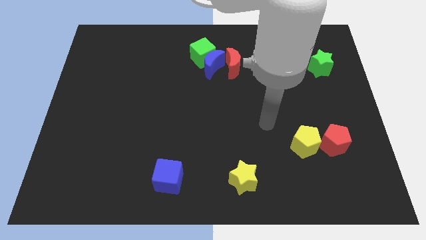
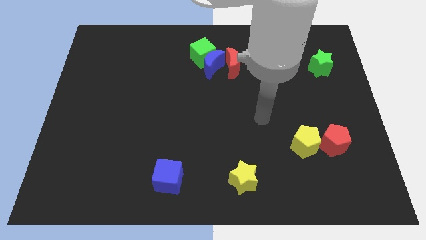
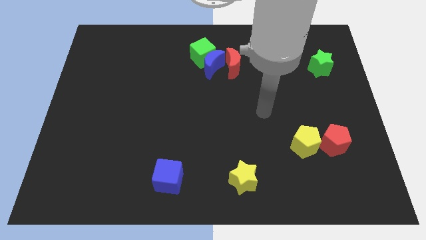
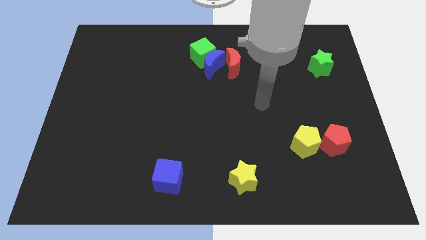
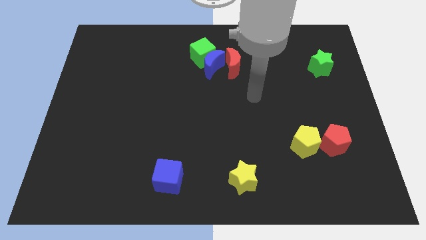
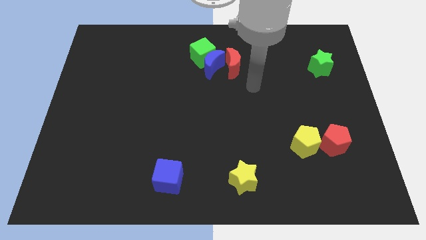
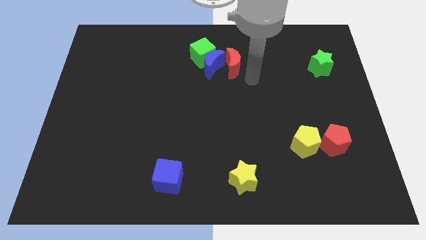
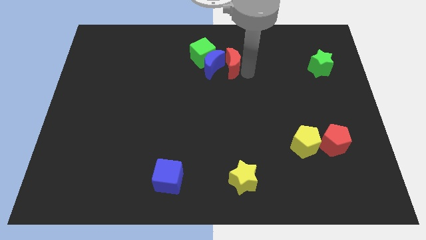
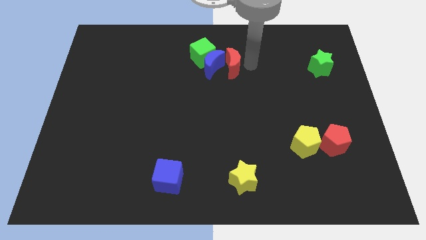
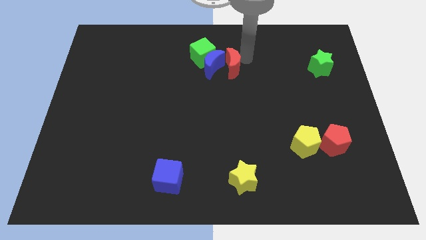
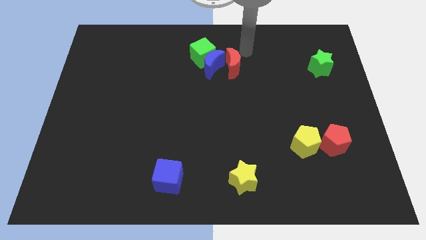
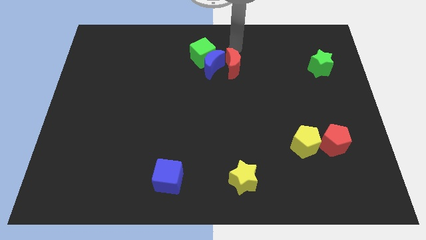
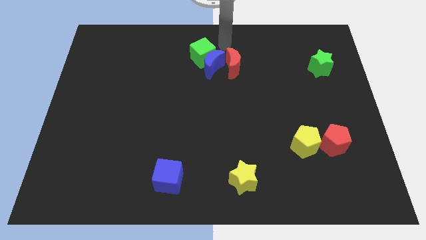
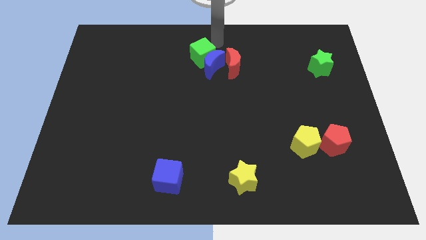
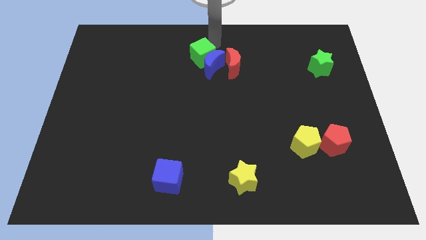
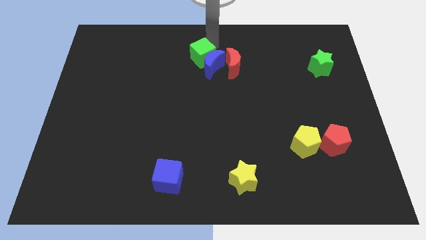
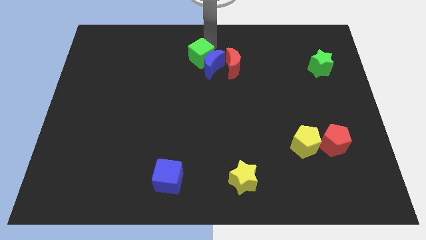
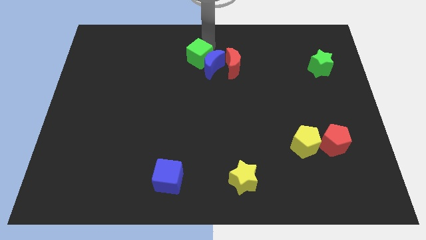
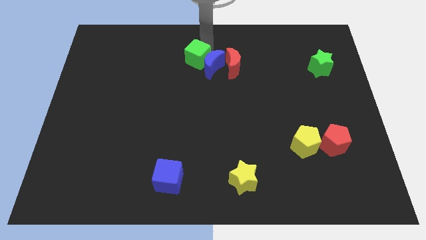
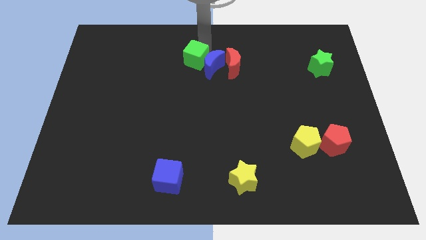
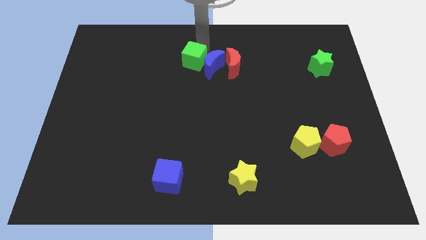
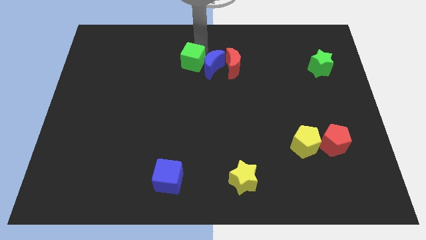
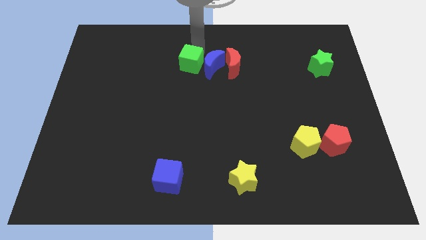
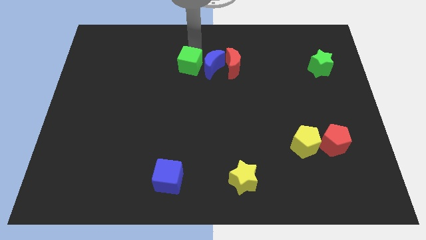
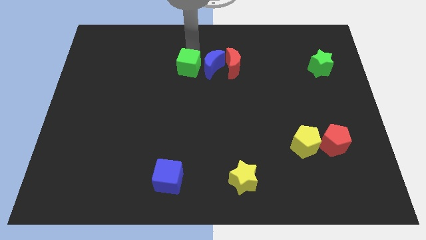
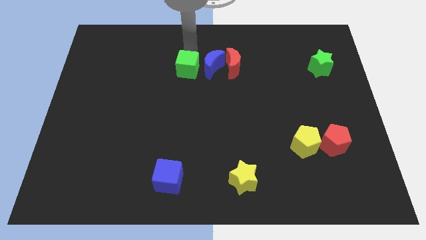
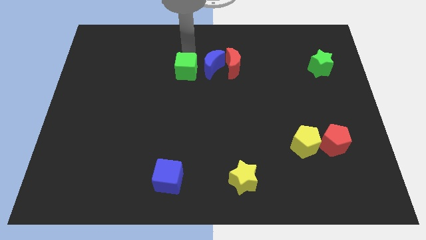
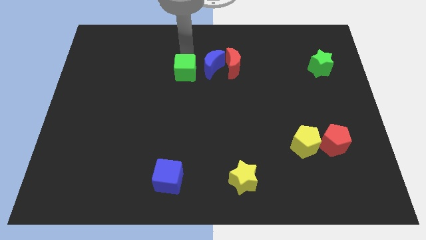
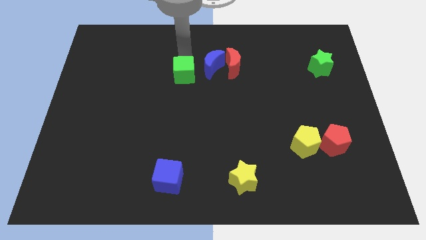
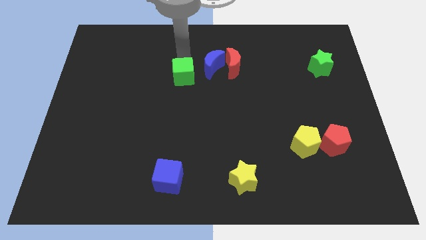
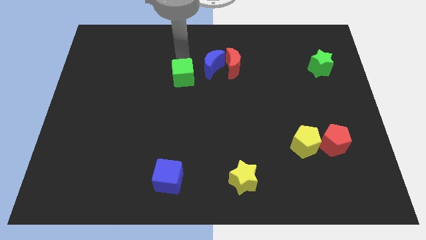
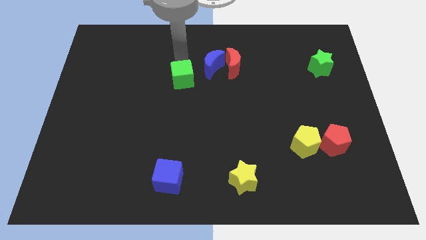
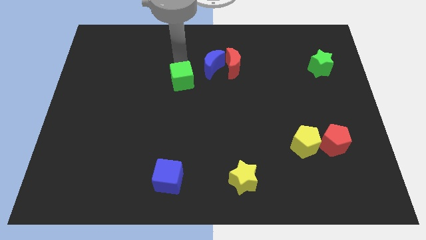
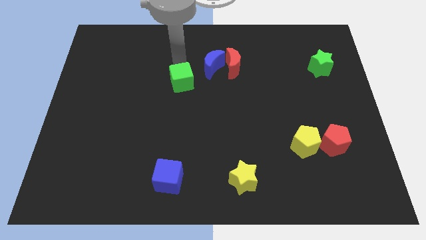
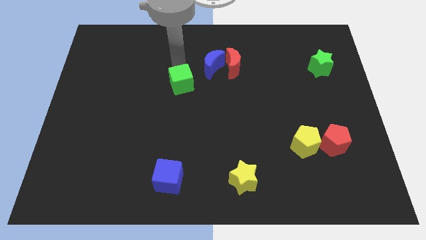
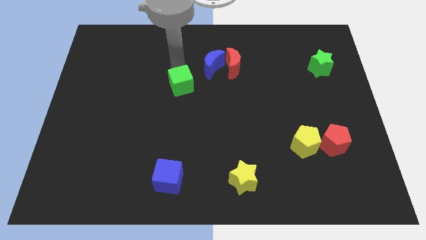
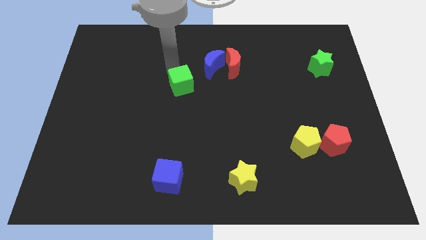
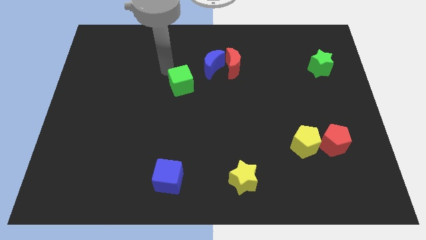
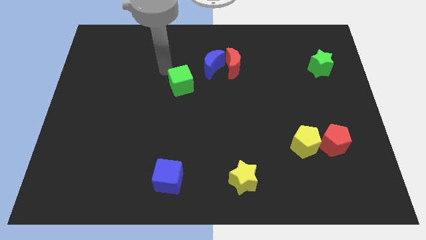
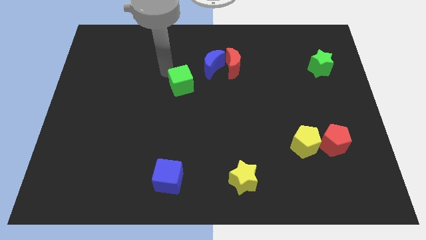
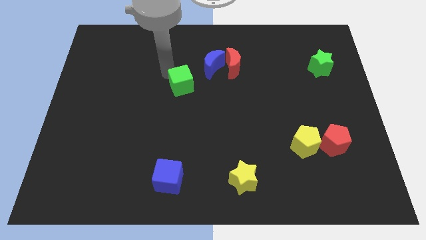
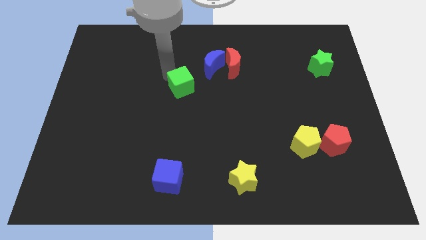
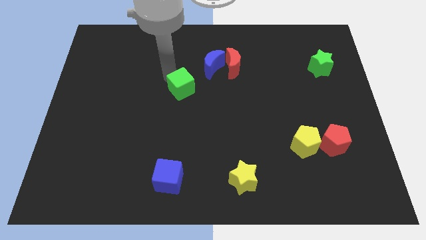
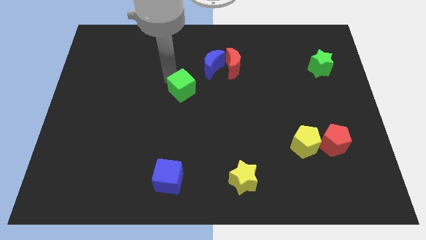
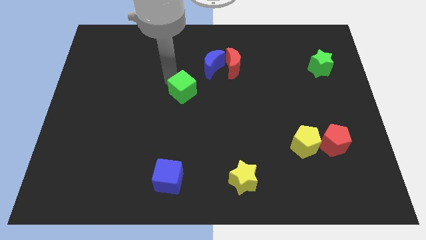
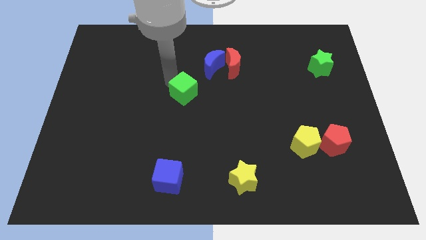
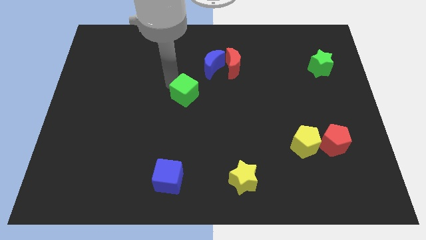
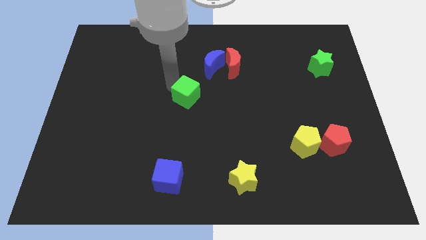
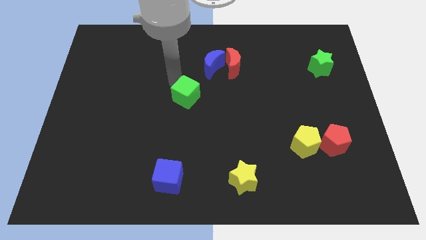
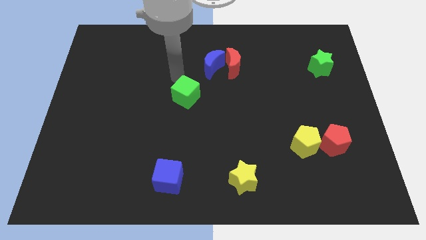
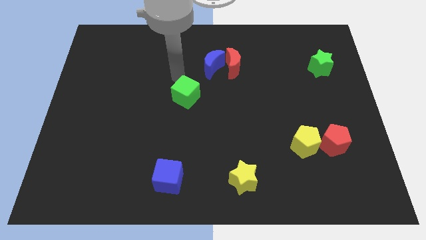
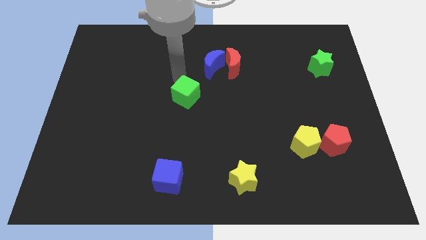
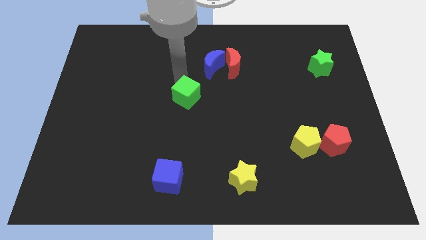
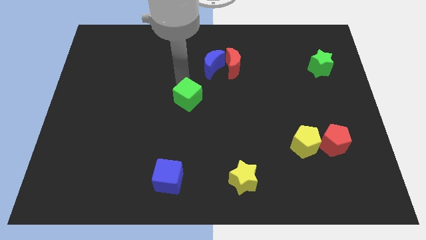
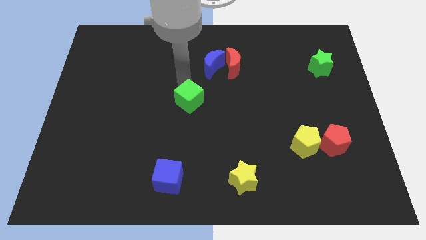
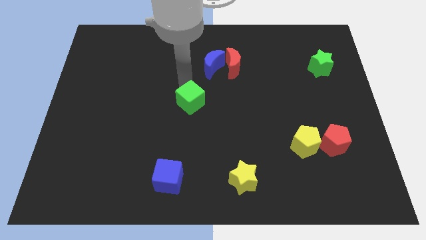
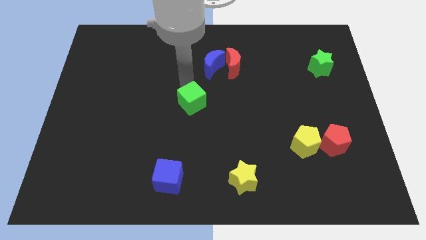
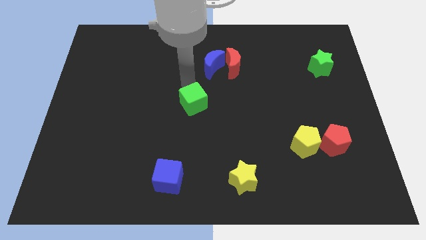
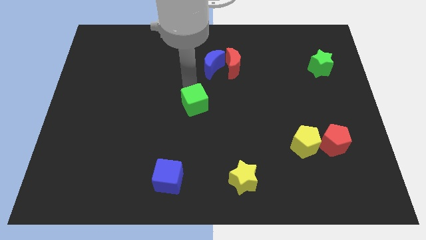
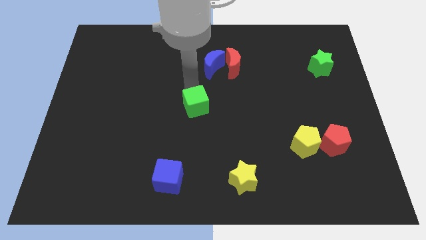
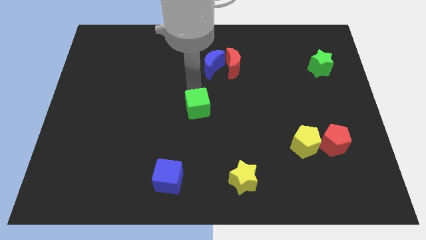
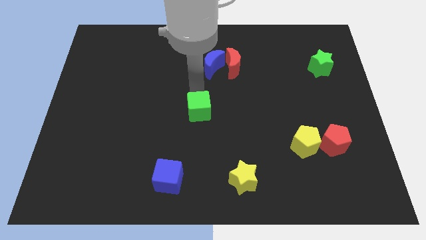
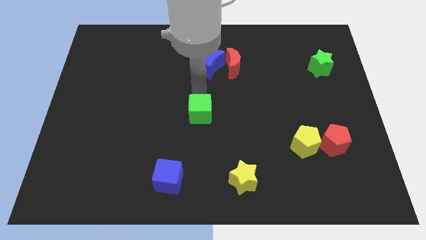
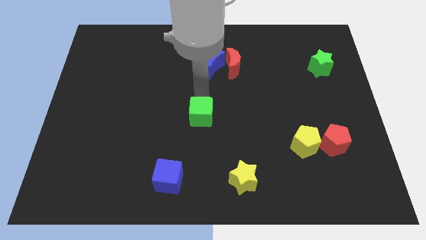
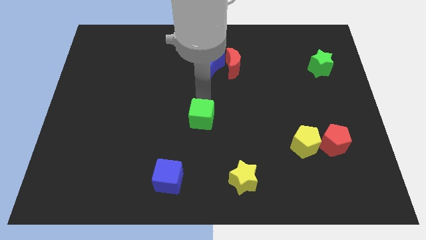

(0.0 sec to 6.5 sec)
move the green cube downwards

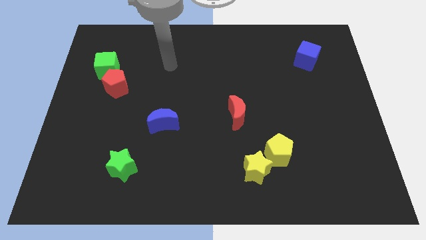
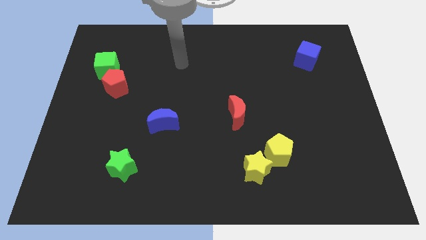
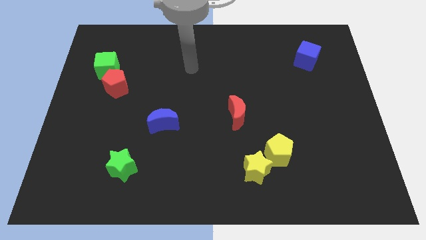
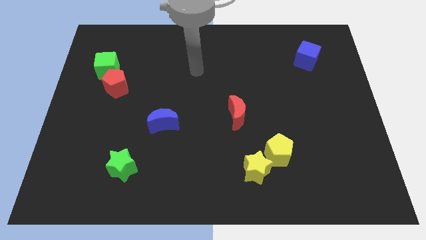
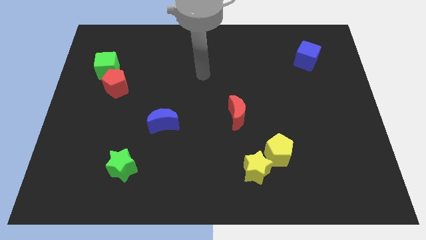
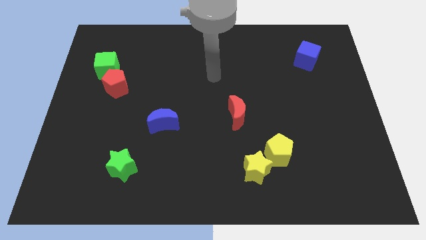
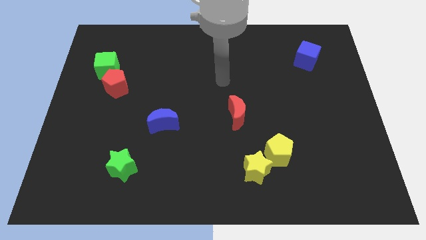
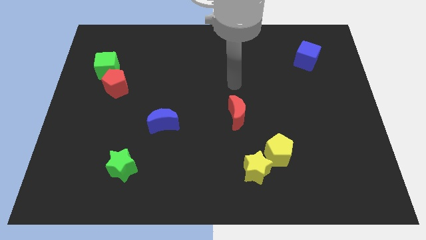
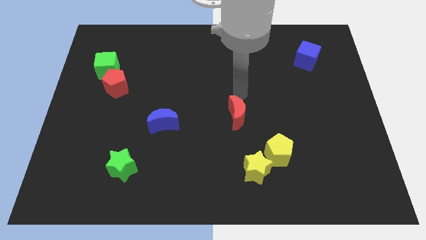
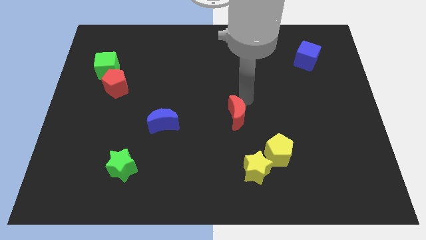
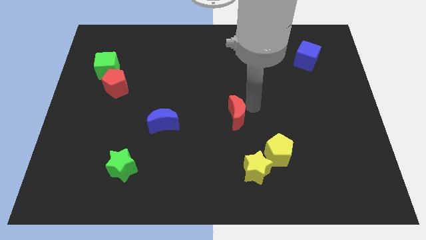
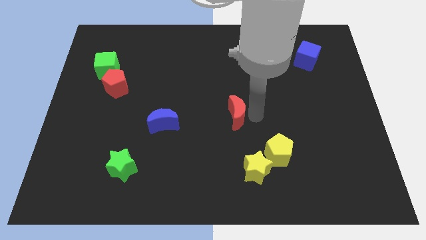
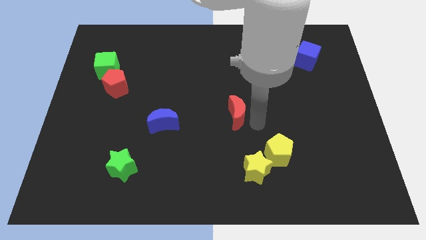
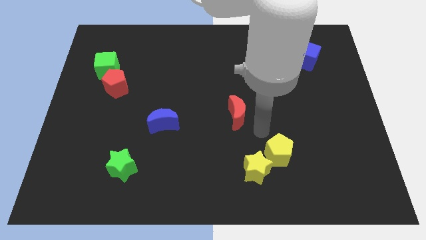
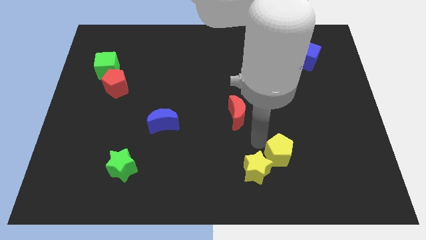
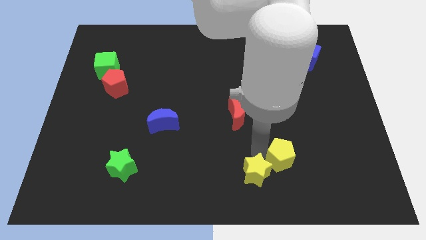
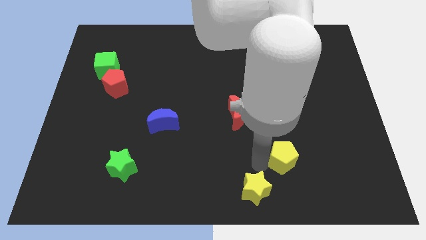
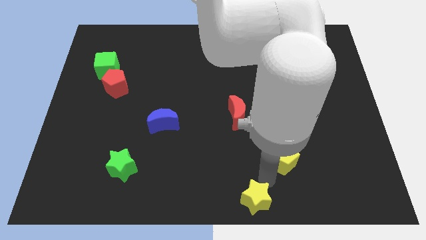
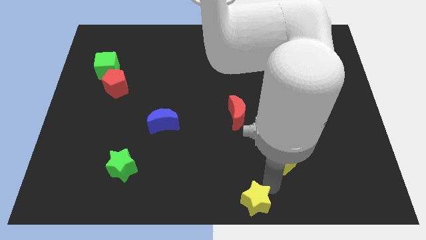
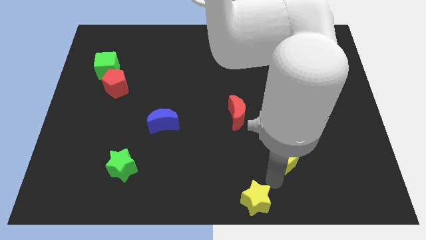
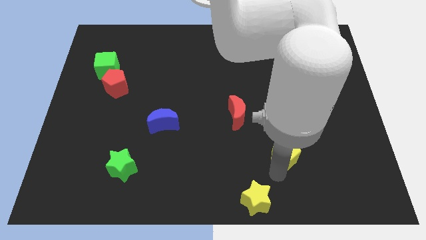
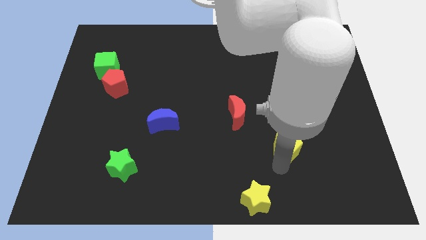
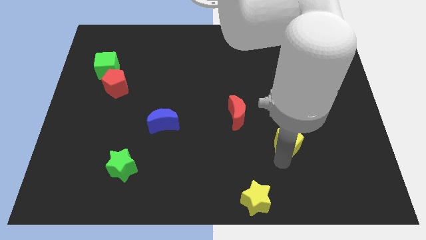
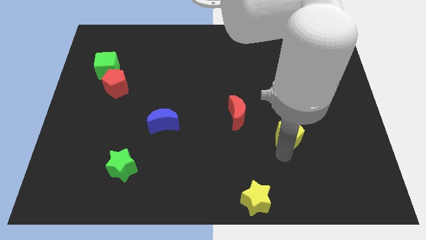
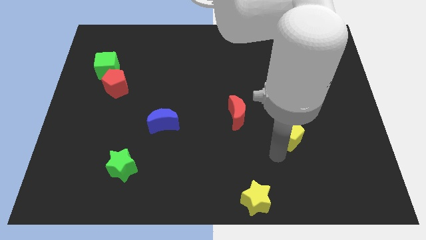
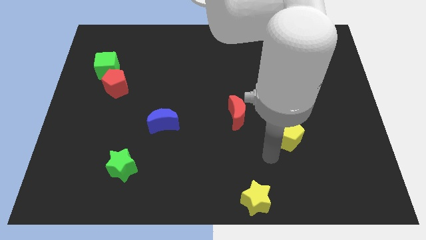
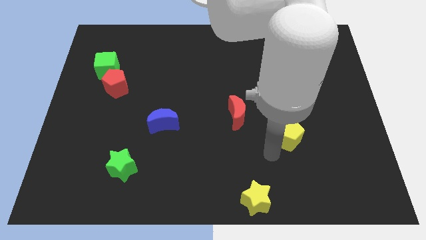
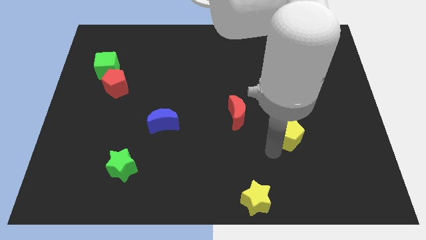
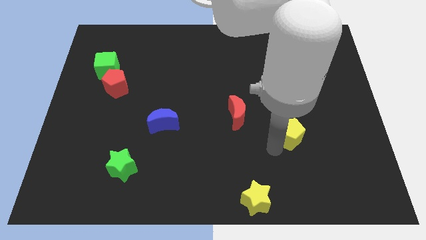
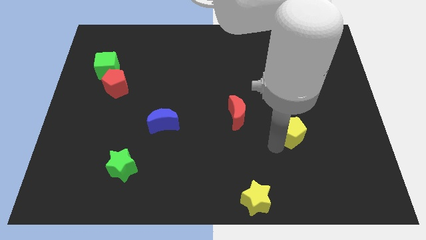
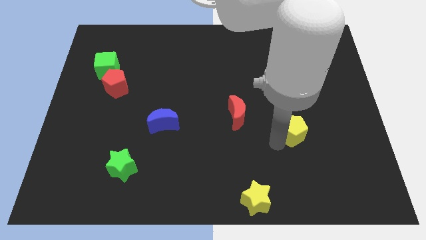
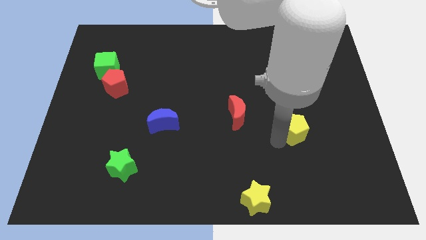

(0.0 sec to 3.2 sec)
slightly push the yellow pentagon up and right diagonally
